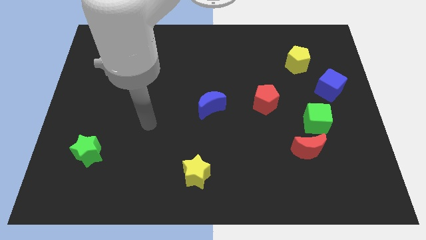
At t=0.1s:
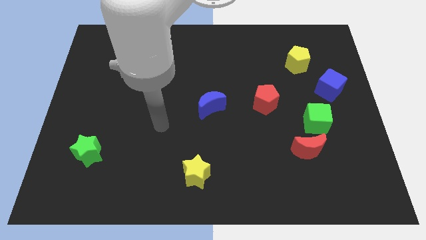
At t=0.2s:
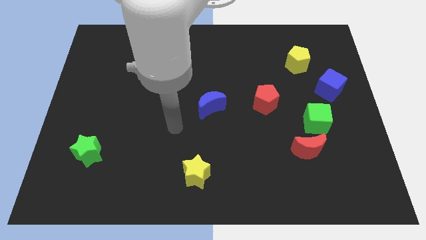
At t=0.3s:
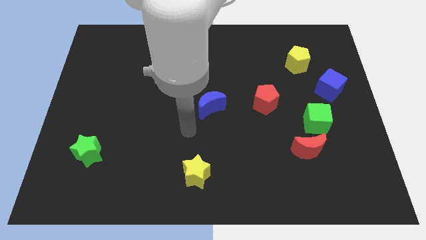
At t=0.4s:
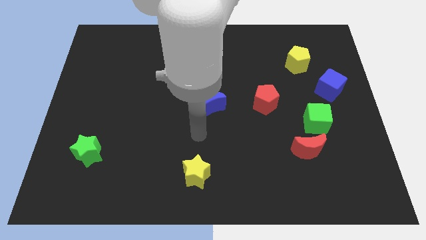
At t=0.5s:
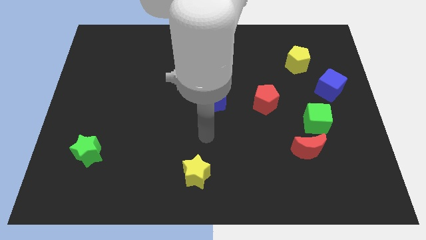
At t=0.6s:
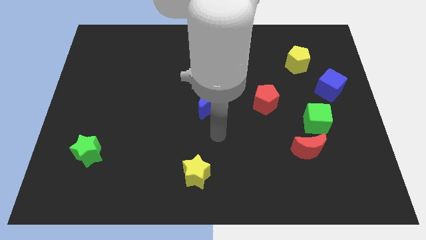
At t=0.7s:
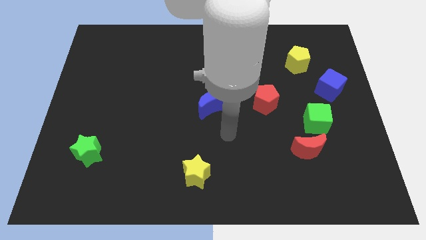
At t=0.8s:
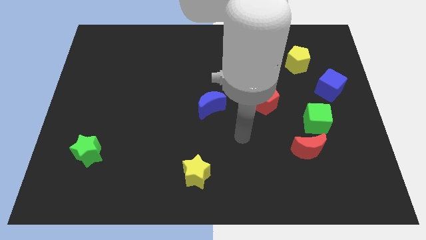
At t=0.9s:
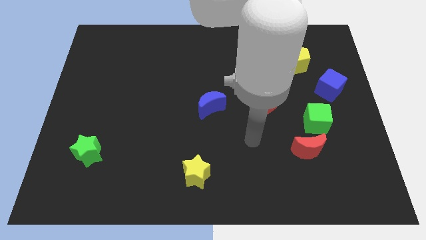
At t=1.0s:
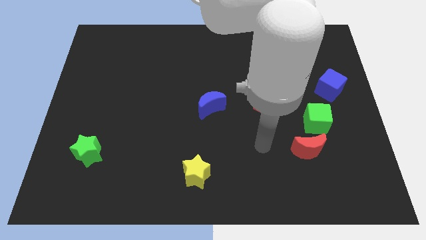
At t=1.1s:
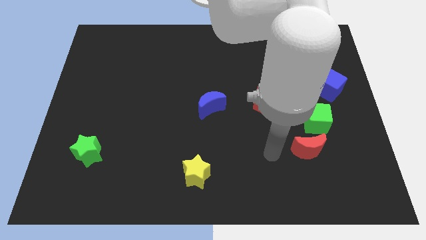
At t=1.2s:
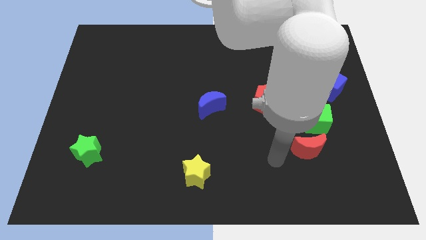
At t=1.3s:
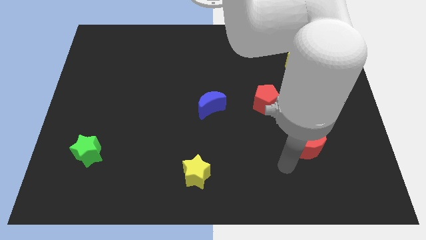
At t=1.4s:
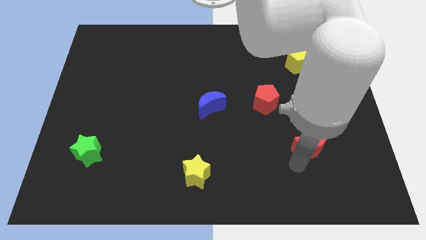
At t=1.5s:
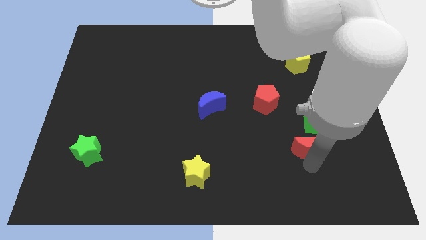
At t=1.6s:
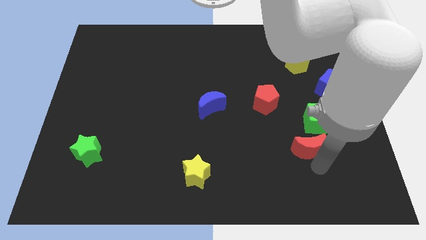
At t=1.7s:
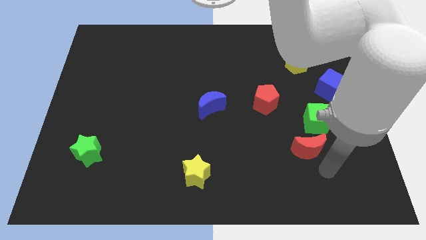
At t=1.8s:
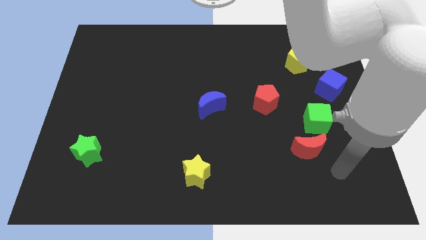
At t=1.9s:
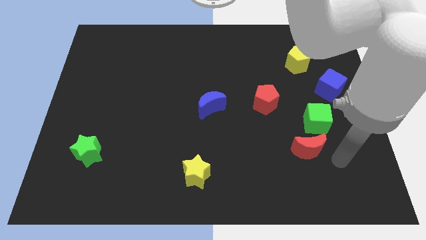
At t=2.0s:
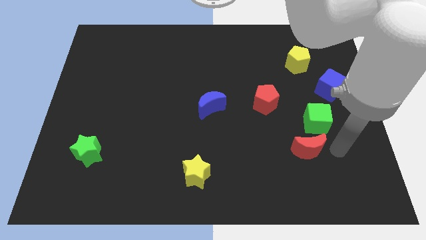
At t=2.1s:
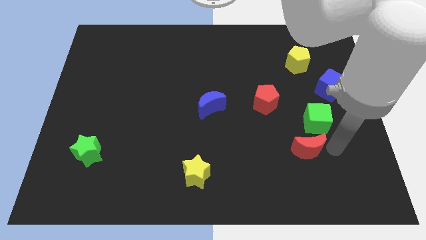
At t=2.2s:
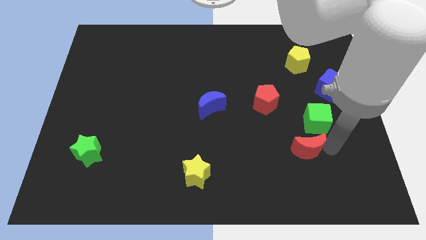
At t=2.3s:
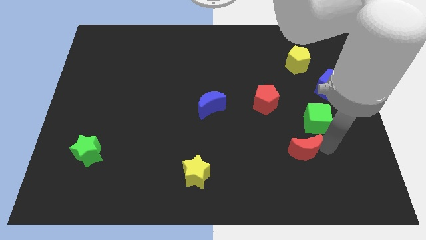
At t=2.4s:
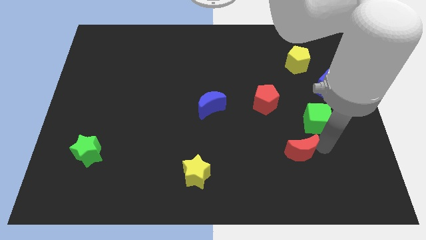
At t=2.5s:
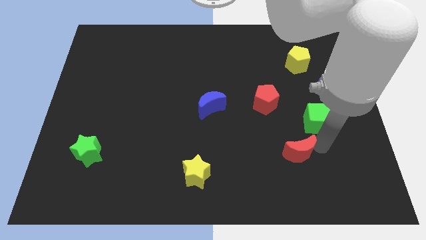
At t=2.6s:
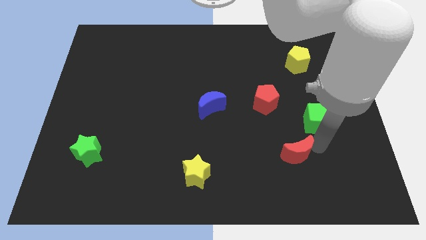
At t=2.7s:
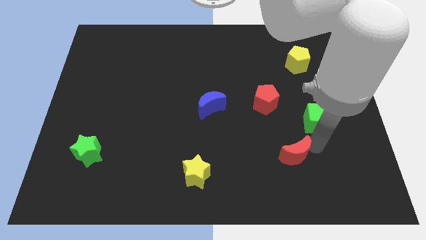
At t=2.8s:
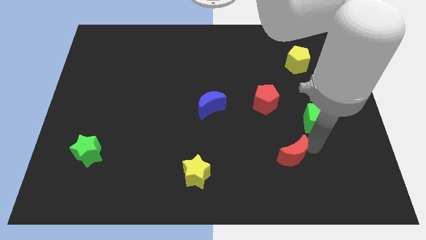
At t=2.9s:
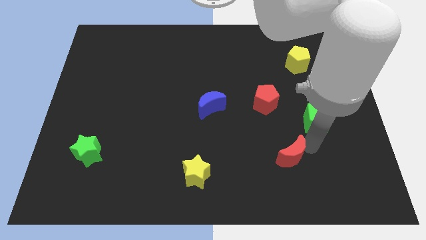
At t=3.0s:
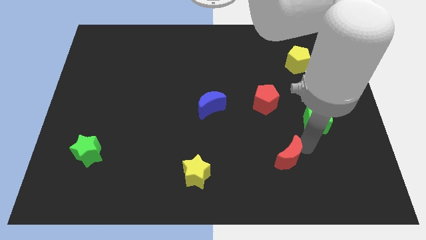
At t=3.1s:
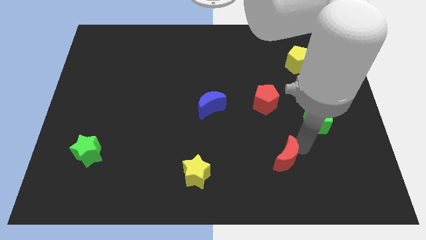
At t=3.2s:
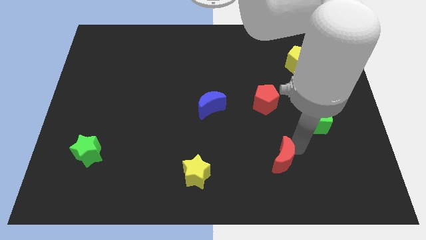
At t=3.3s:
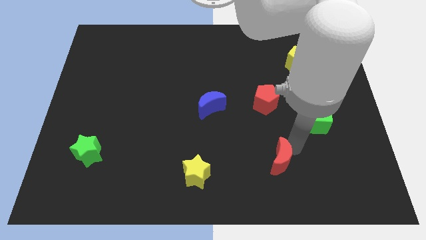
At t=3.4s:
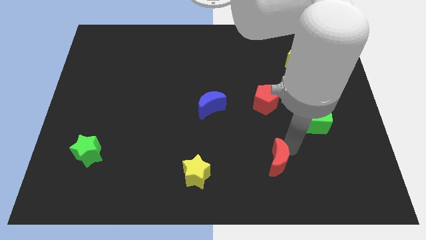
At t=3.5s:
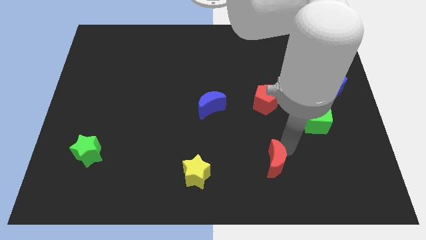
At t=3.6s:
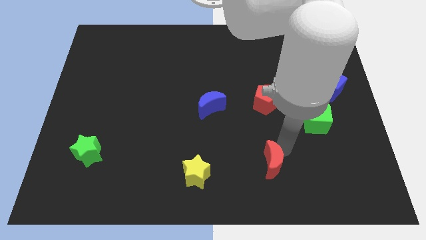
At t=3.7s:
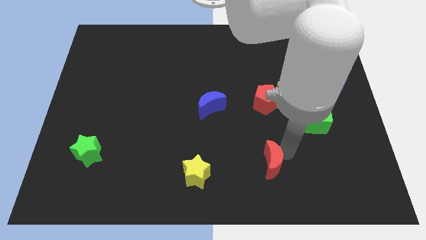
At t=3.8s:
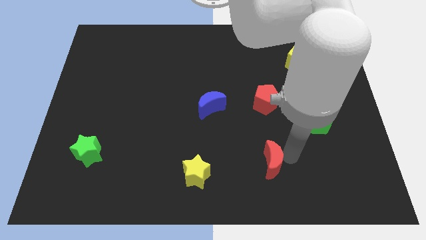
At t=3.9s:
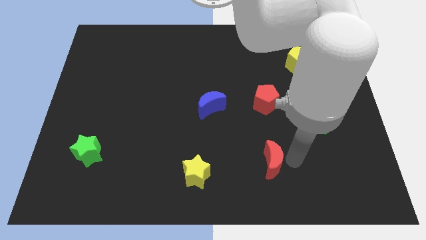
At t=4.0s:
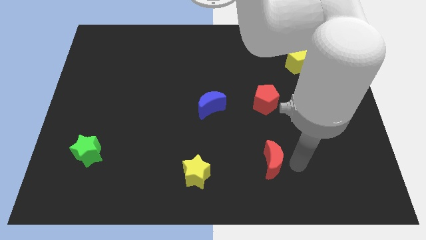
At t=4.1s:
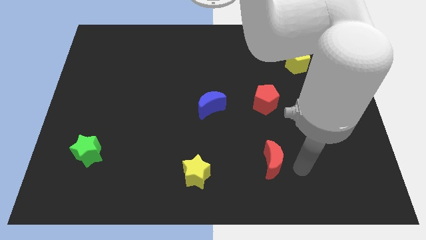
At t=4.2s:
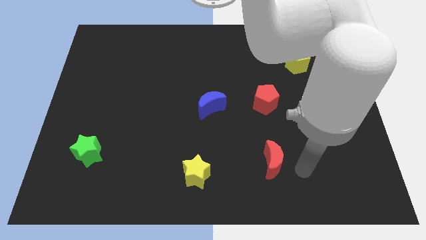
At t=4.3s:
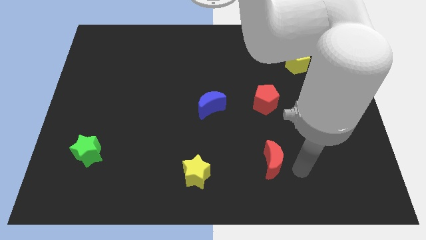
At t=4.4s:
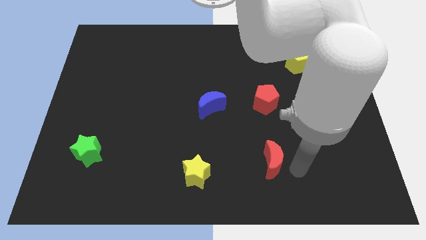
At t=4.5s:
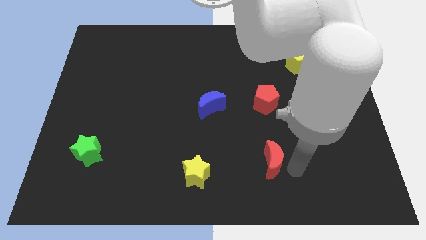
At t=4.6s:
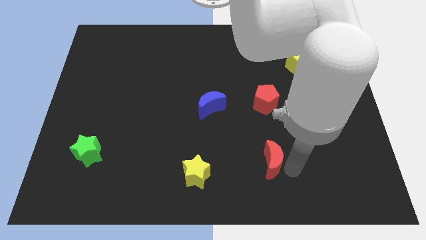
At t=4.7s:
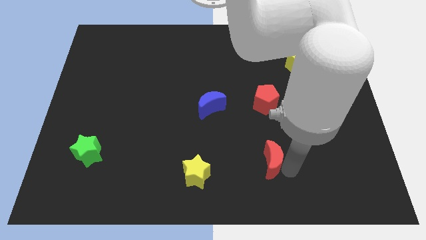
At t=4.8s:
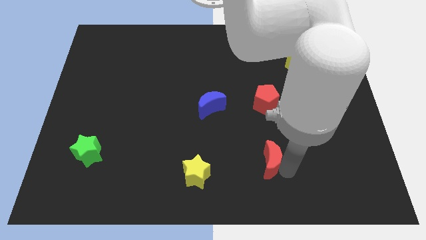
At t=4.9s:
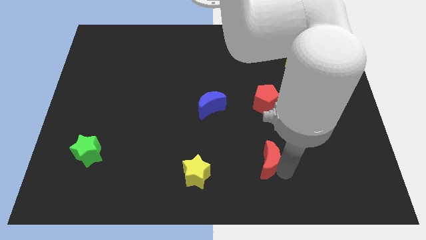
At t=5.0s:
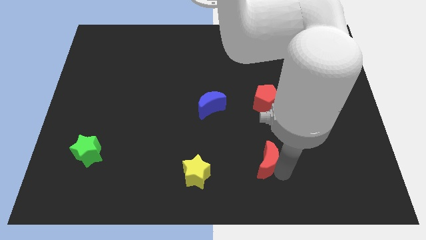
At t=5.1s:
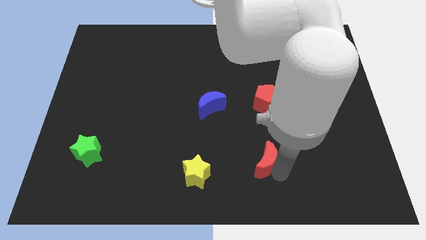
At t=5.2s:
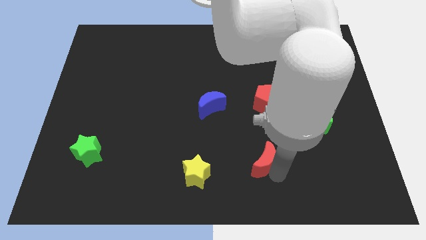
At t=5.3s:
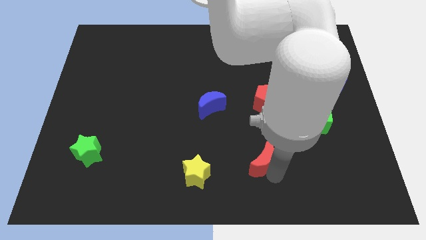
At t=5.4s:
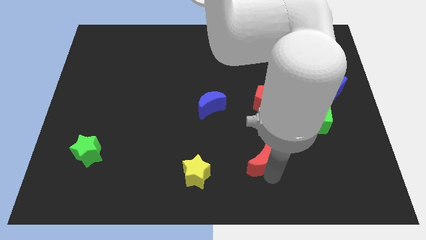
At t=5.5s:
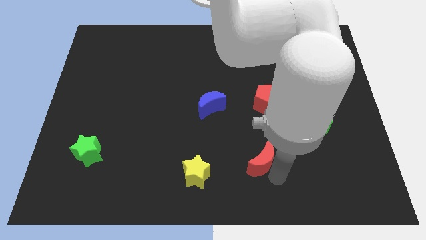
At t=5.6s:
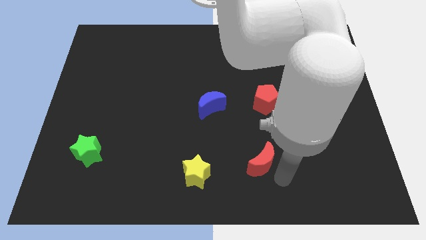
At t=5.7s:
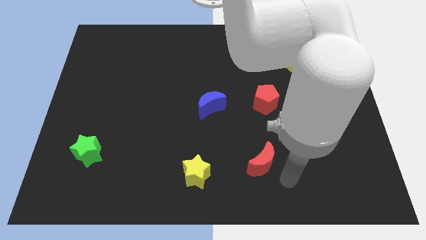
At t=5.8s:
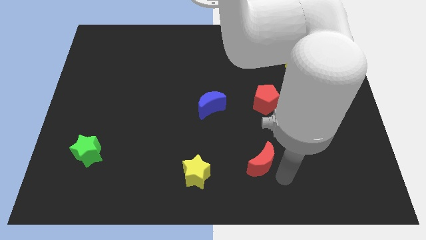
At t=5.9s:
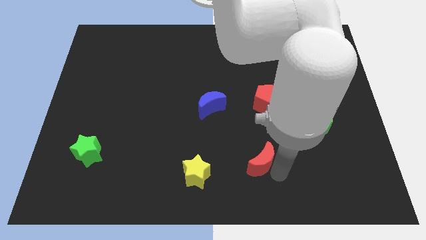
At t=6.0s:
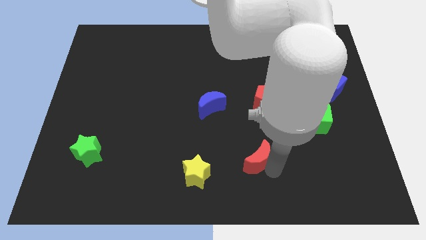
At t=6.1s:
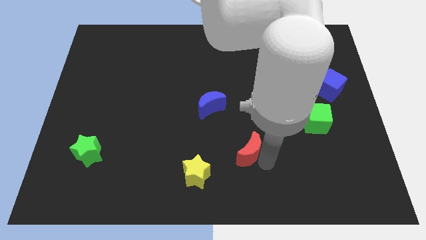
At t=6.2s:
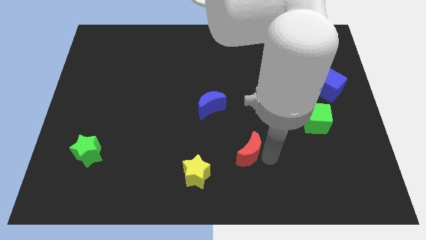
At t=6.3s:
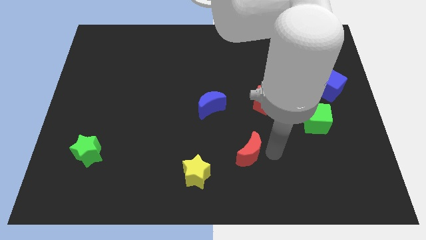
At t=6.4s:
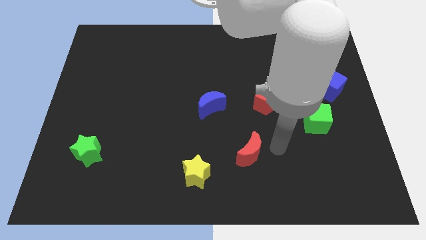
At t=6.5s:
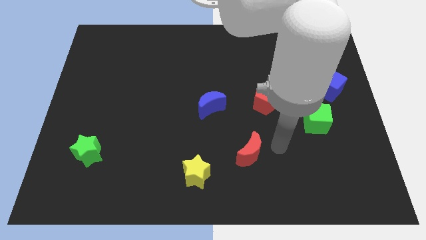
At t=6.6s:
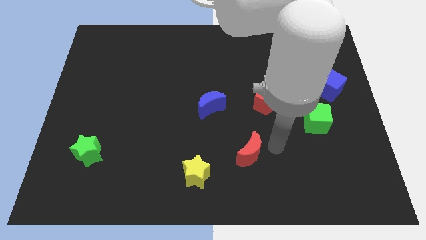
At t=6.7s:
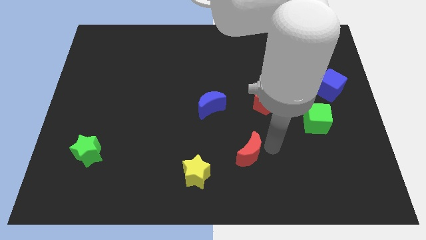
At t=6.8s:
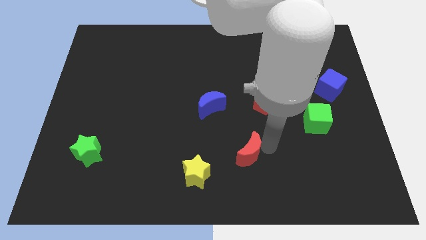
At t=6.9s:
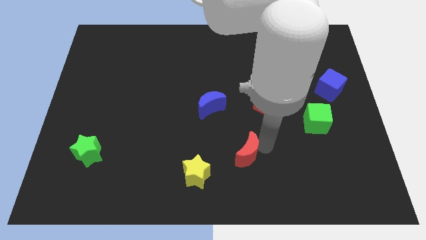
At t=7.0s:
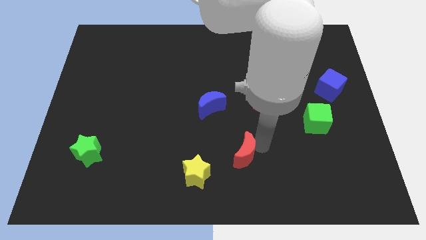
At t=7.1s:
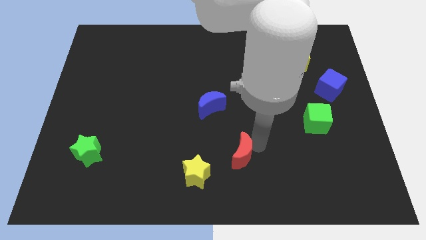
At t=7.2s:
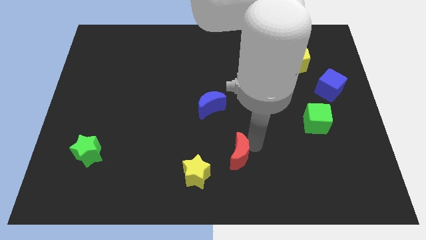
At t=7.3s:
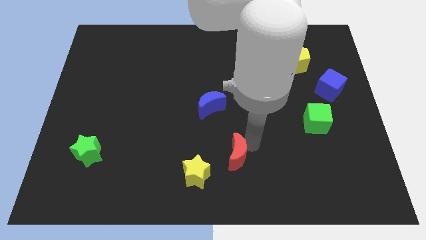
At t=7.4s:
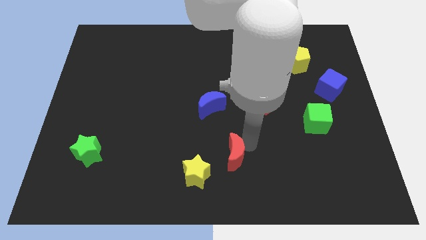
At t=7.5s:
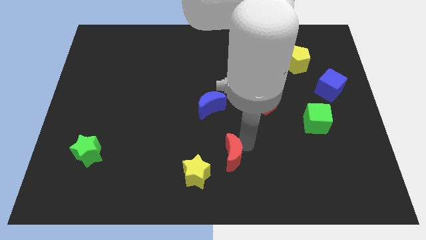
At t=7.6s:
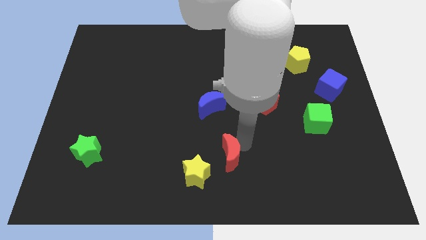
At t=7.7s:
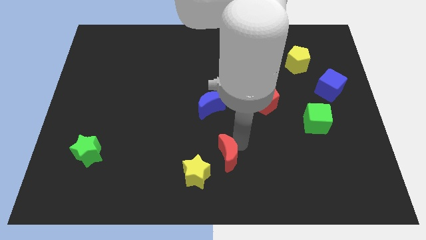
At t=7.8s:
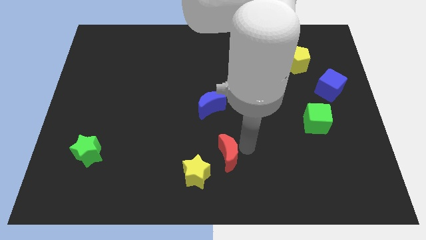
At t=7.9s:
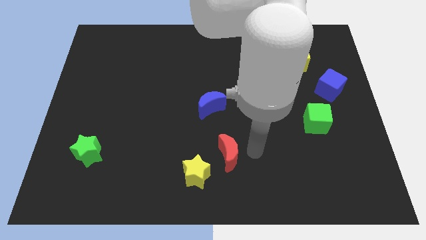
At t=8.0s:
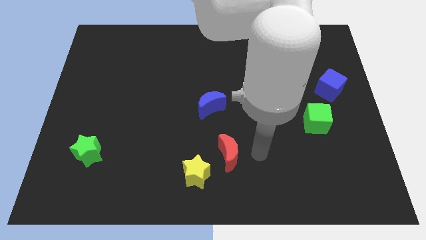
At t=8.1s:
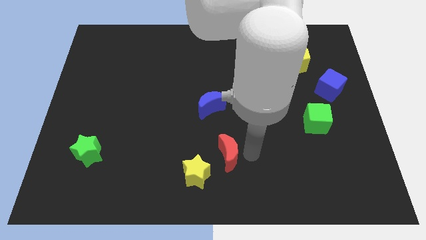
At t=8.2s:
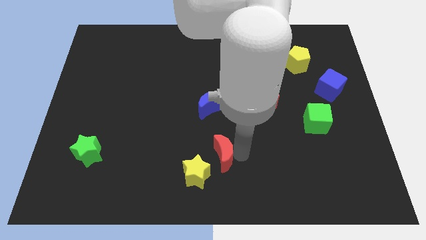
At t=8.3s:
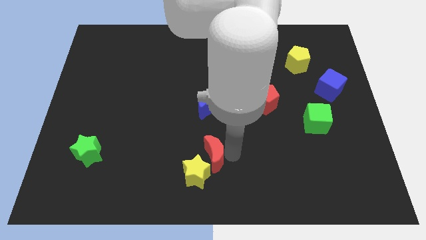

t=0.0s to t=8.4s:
move the red moon left
